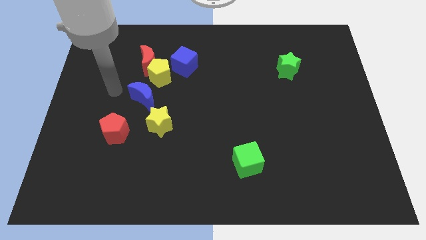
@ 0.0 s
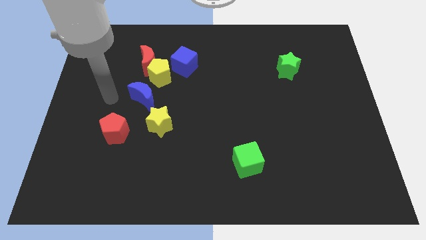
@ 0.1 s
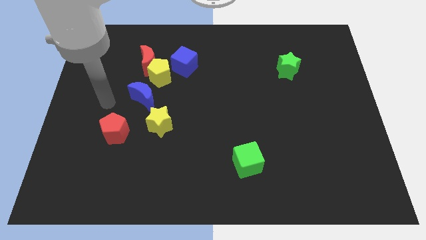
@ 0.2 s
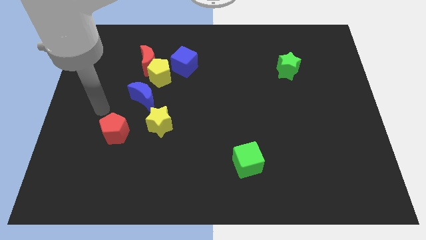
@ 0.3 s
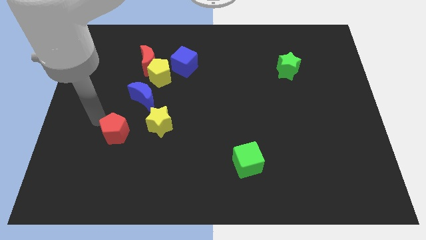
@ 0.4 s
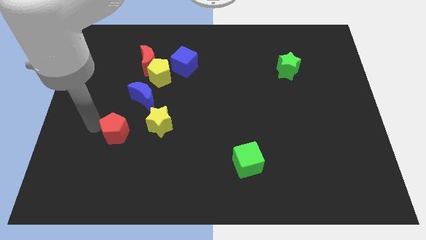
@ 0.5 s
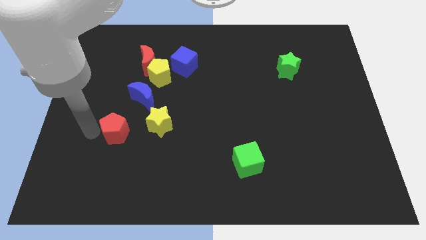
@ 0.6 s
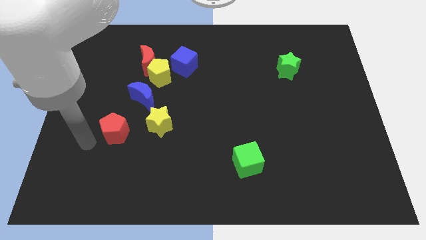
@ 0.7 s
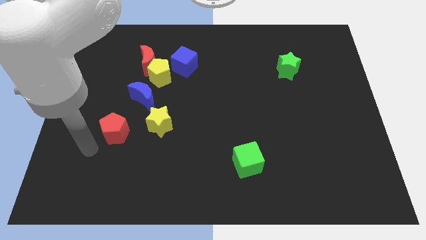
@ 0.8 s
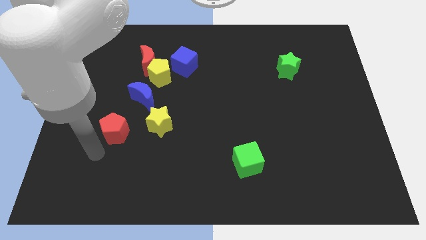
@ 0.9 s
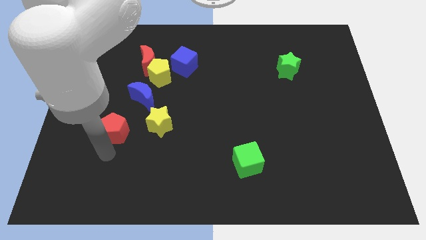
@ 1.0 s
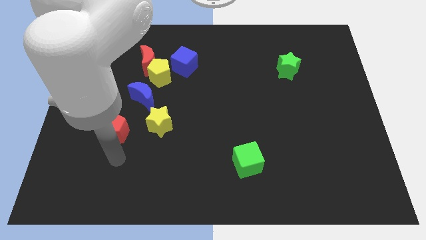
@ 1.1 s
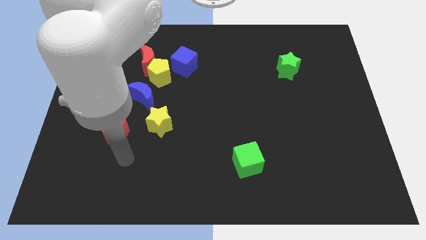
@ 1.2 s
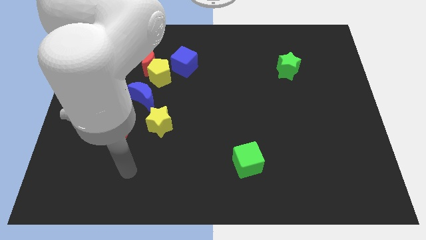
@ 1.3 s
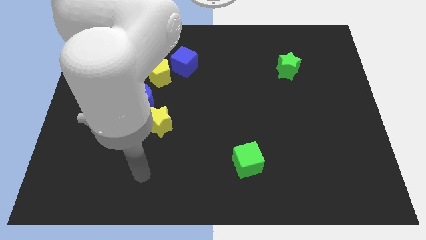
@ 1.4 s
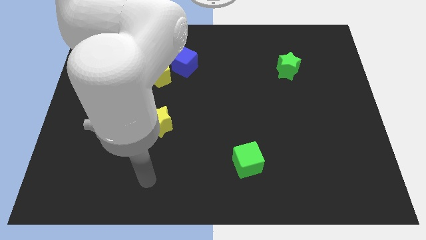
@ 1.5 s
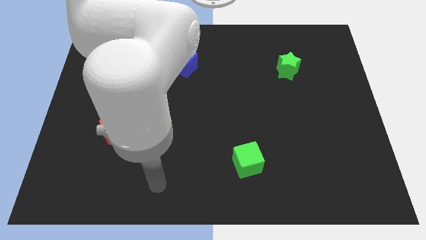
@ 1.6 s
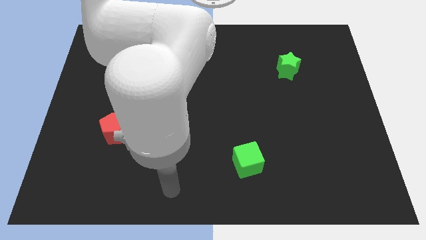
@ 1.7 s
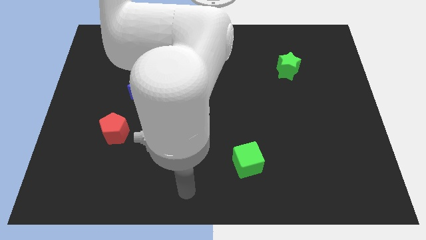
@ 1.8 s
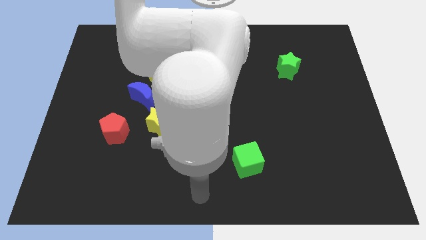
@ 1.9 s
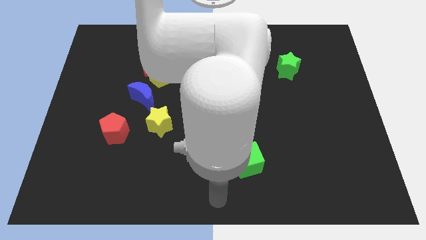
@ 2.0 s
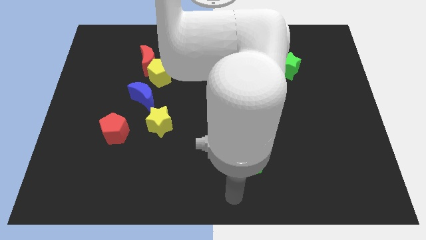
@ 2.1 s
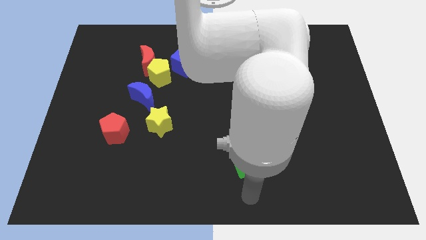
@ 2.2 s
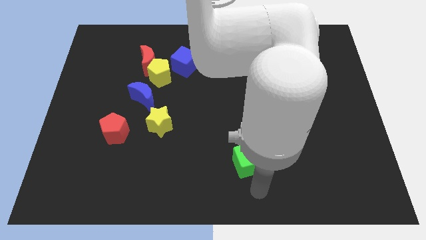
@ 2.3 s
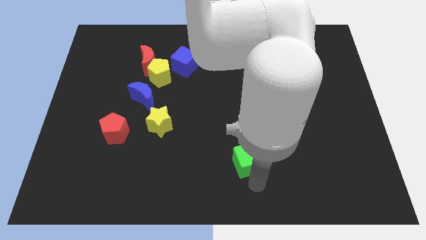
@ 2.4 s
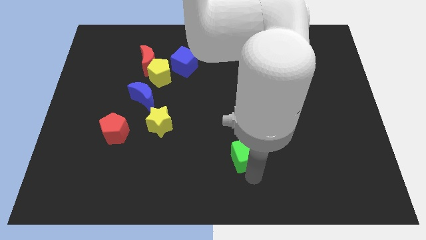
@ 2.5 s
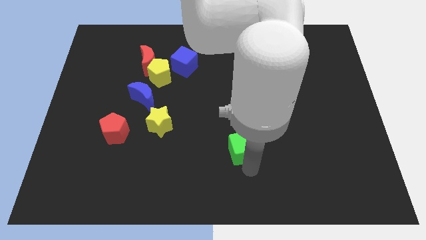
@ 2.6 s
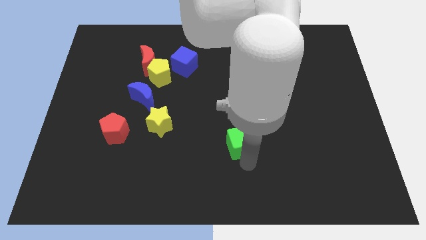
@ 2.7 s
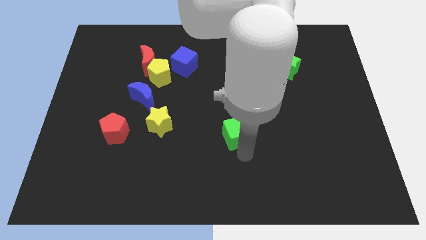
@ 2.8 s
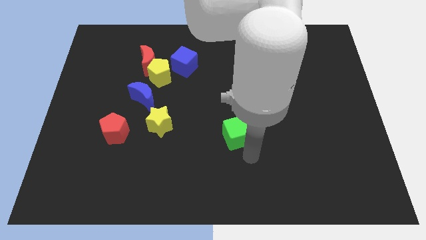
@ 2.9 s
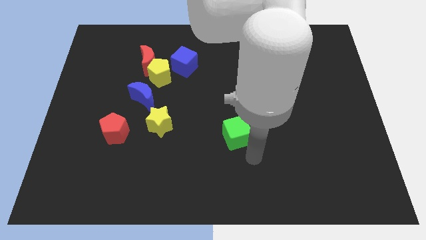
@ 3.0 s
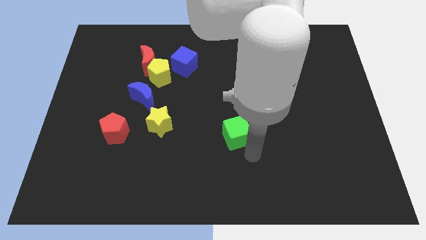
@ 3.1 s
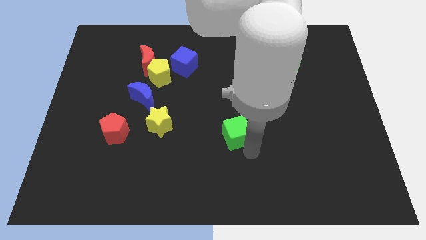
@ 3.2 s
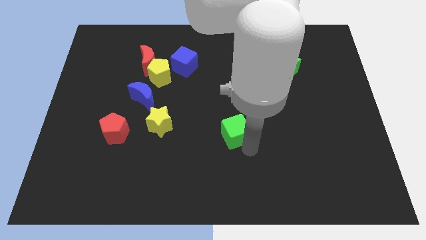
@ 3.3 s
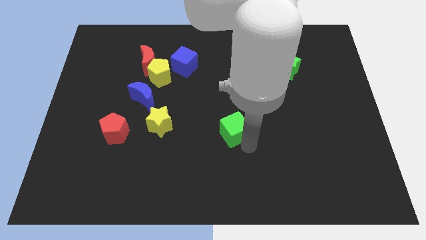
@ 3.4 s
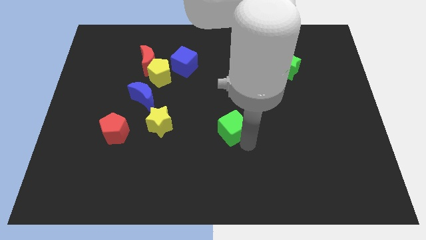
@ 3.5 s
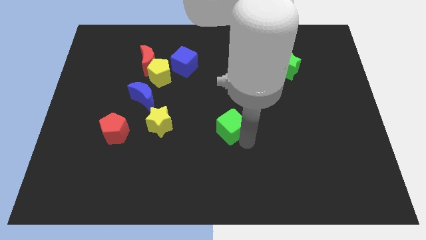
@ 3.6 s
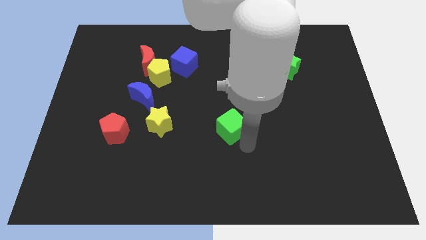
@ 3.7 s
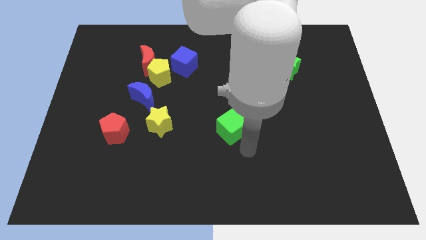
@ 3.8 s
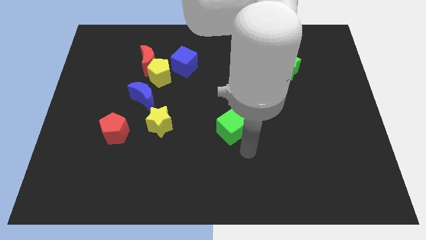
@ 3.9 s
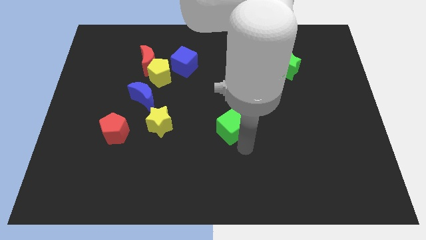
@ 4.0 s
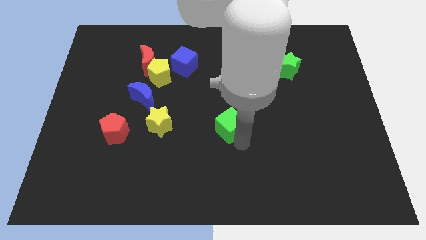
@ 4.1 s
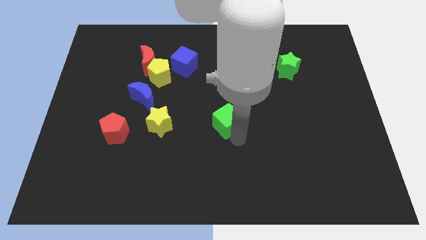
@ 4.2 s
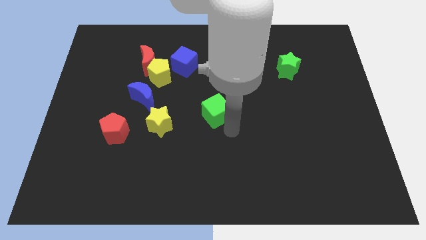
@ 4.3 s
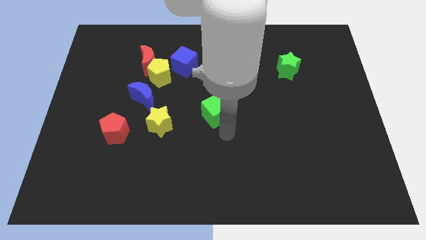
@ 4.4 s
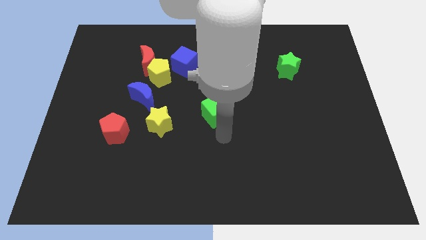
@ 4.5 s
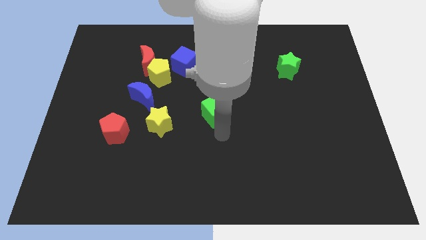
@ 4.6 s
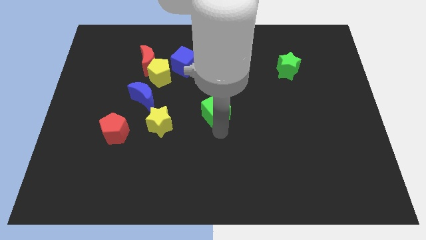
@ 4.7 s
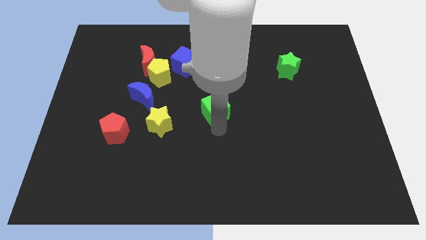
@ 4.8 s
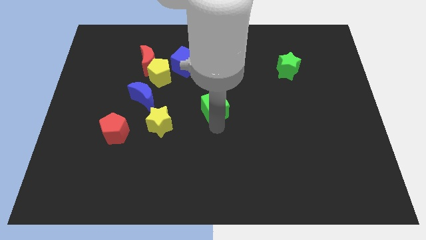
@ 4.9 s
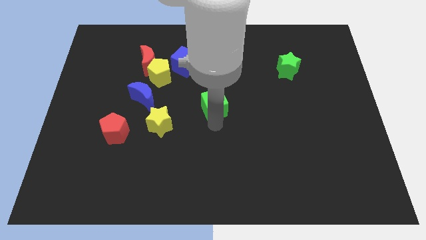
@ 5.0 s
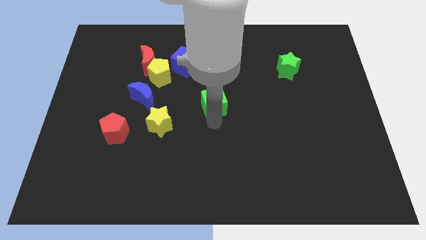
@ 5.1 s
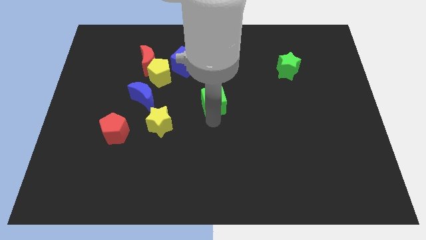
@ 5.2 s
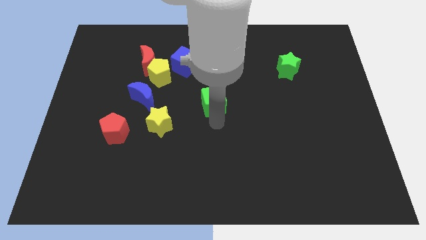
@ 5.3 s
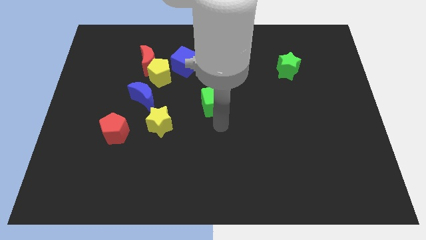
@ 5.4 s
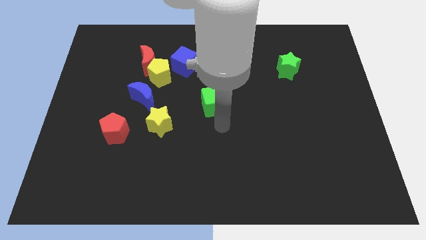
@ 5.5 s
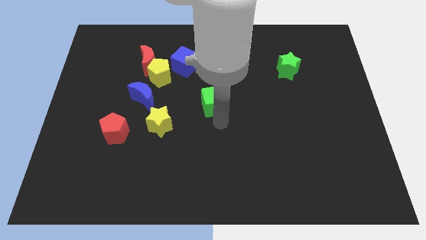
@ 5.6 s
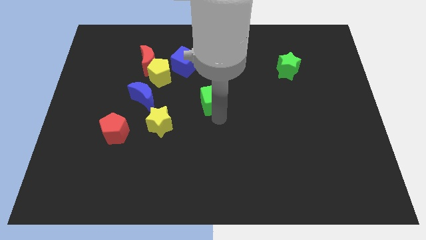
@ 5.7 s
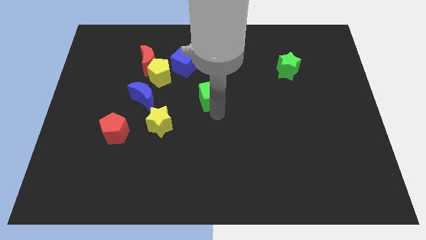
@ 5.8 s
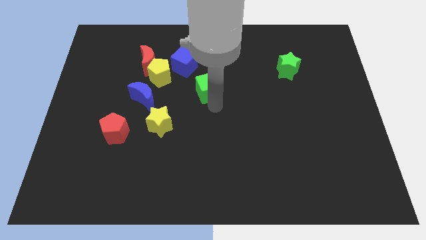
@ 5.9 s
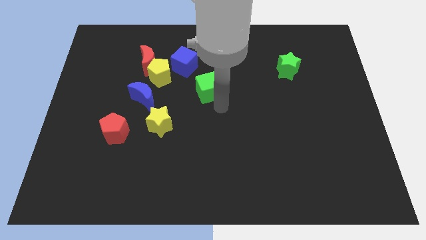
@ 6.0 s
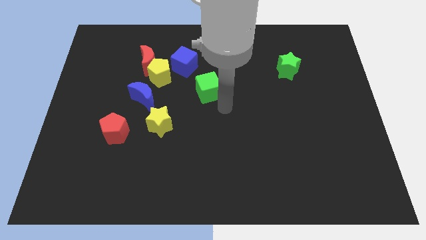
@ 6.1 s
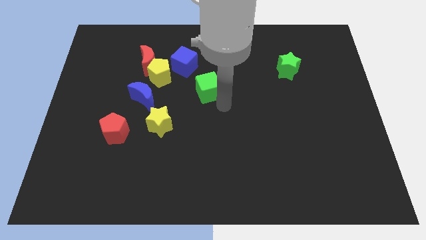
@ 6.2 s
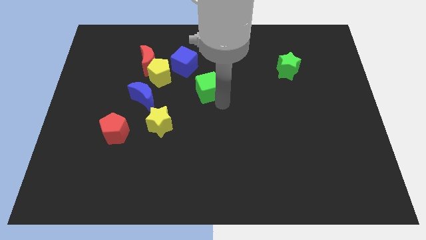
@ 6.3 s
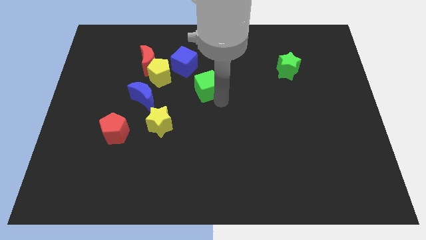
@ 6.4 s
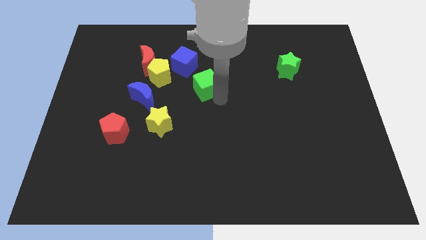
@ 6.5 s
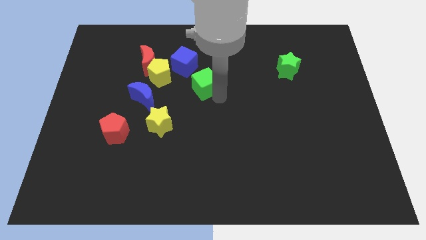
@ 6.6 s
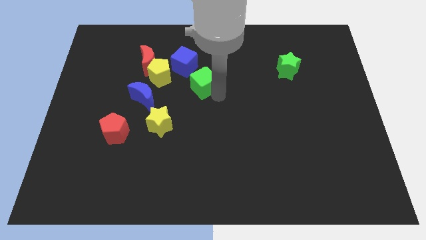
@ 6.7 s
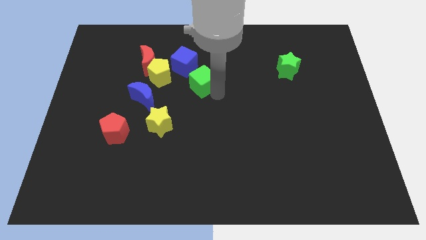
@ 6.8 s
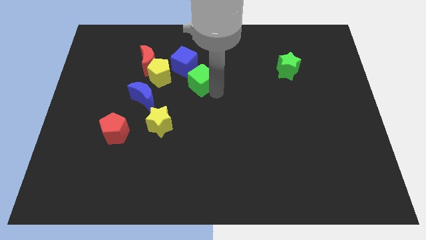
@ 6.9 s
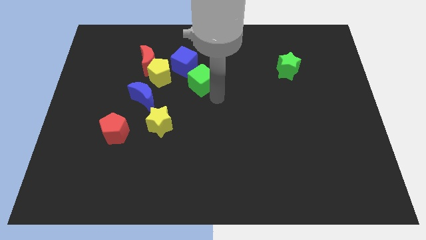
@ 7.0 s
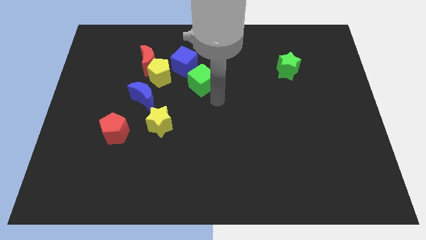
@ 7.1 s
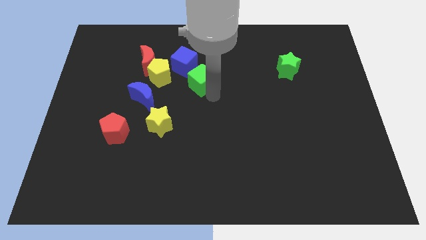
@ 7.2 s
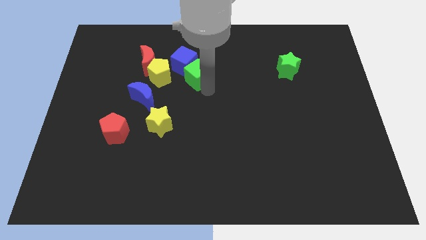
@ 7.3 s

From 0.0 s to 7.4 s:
slide the green cube to the blue cube
